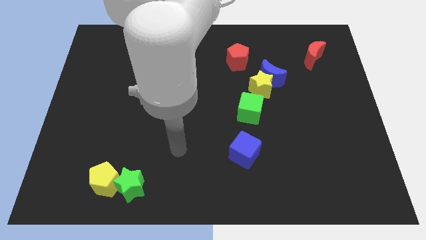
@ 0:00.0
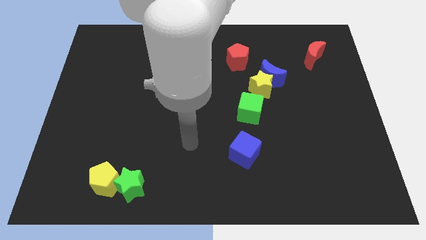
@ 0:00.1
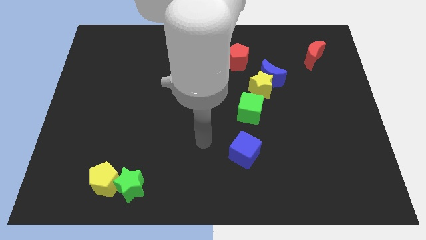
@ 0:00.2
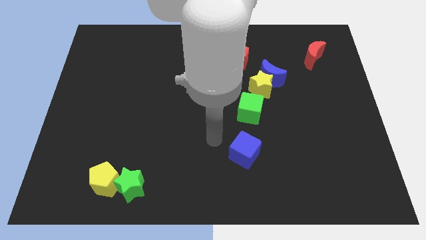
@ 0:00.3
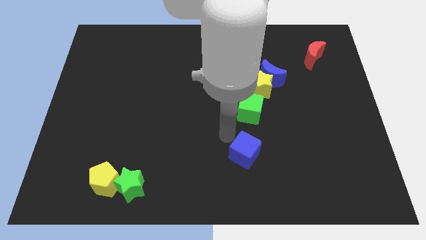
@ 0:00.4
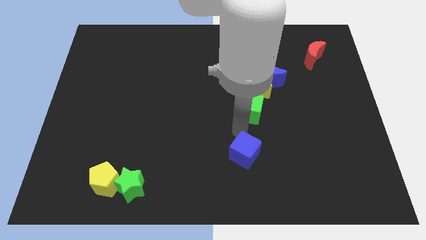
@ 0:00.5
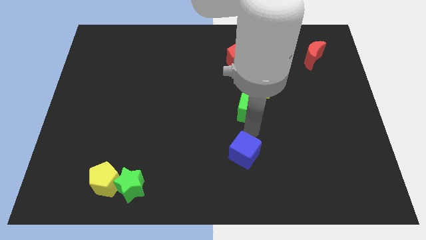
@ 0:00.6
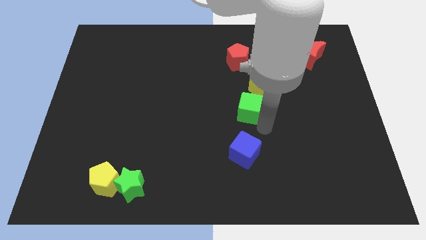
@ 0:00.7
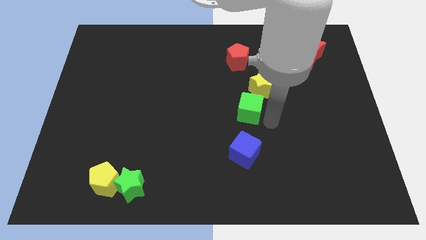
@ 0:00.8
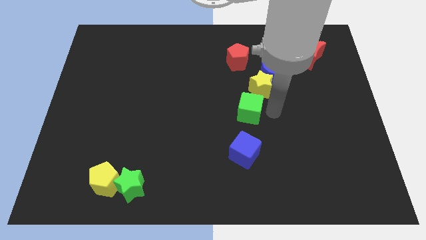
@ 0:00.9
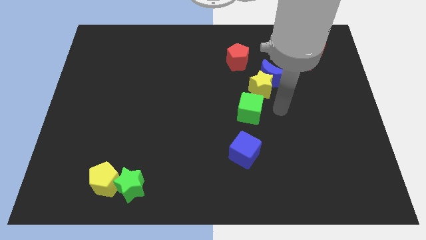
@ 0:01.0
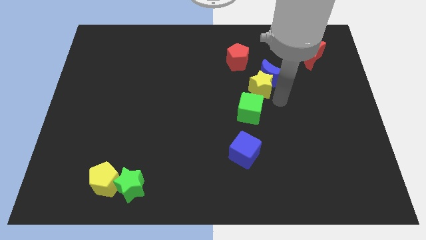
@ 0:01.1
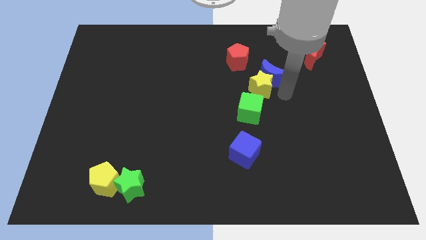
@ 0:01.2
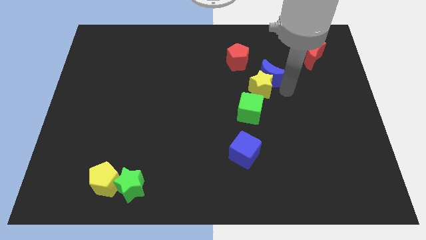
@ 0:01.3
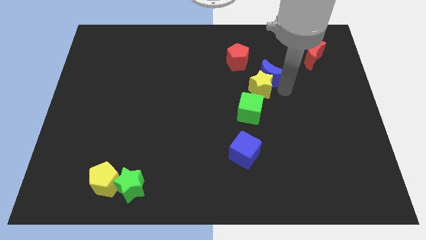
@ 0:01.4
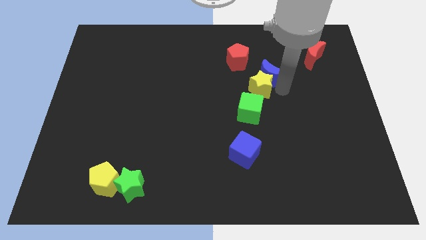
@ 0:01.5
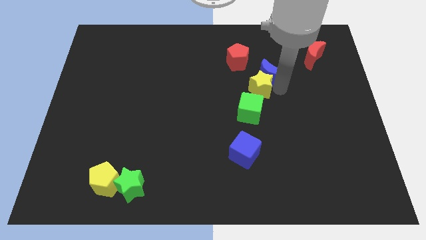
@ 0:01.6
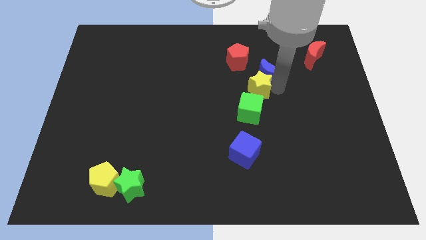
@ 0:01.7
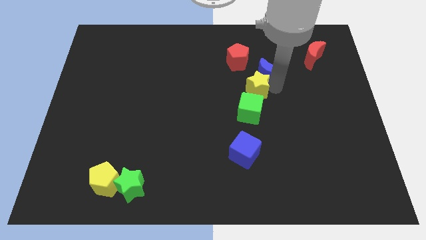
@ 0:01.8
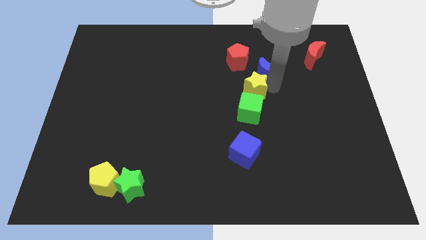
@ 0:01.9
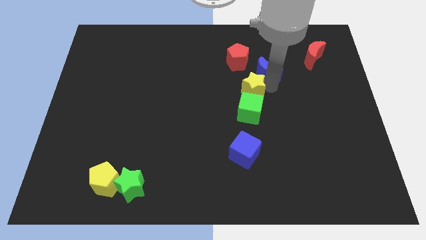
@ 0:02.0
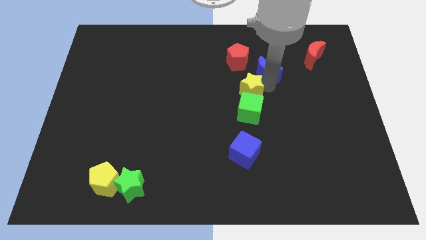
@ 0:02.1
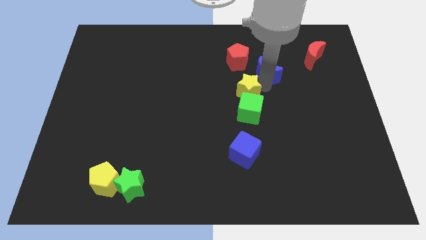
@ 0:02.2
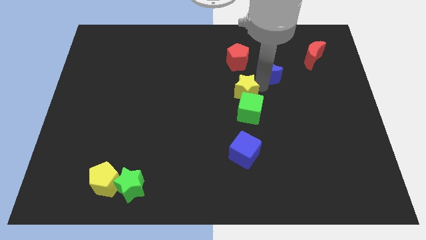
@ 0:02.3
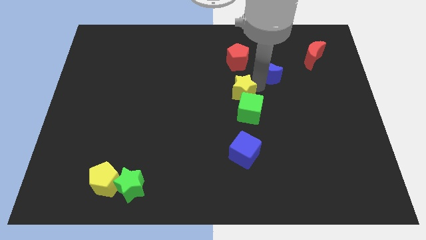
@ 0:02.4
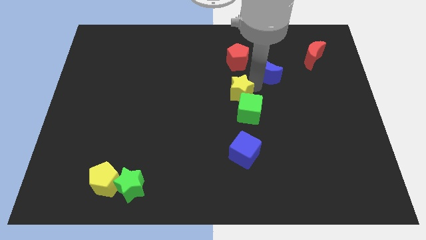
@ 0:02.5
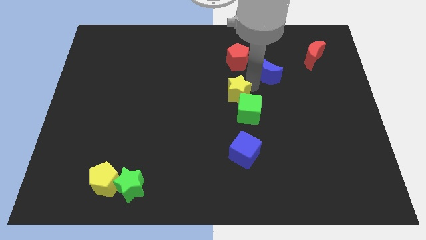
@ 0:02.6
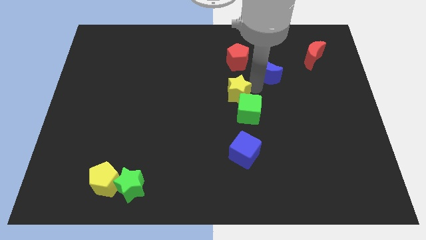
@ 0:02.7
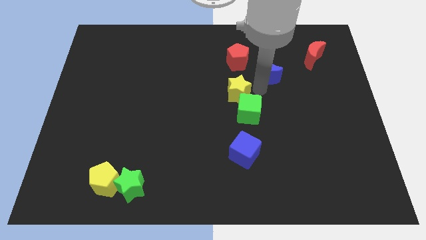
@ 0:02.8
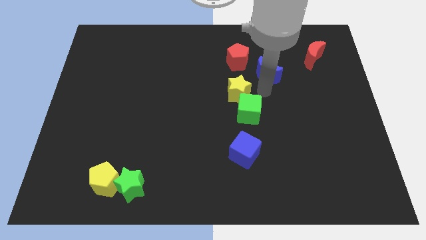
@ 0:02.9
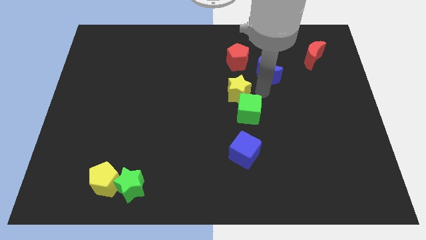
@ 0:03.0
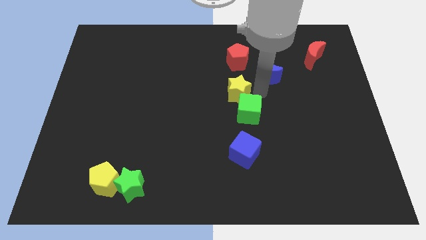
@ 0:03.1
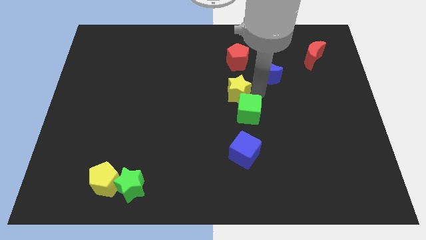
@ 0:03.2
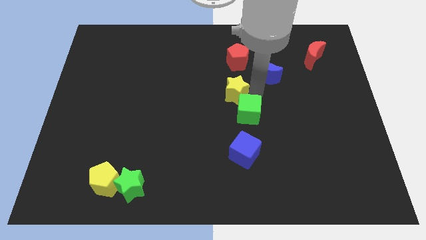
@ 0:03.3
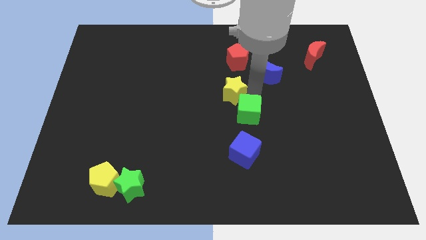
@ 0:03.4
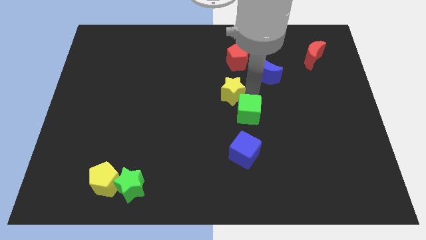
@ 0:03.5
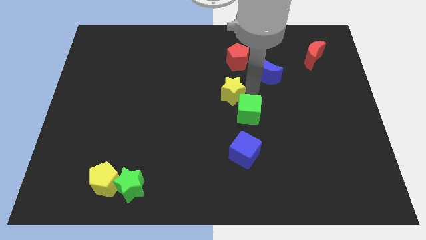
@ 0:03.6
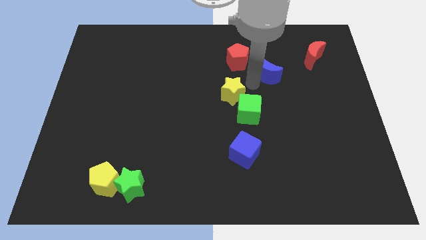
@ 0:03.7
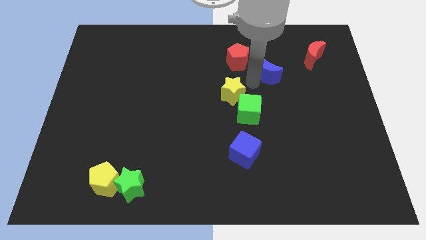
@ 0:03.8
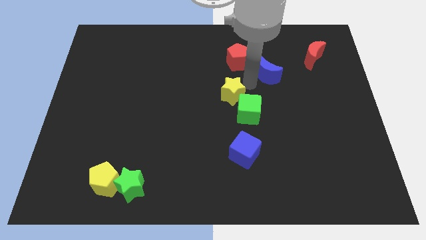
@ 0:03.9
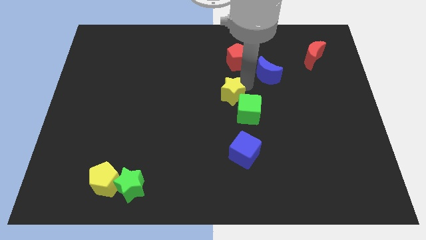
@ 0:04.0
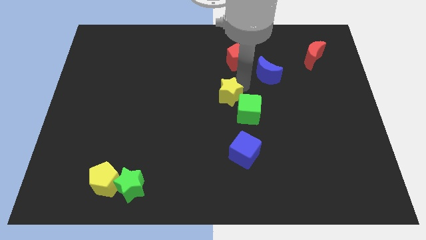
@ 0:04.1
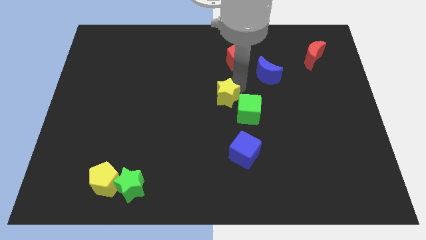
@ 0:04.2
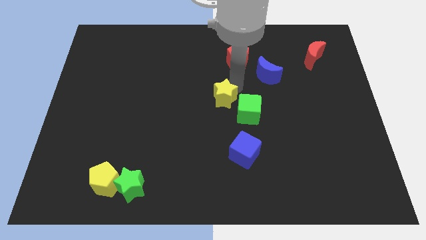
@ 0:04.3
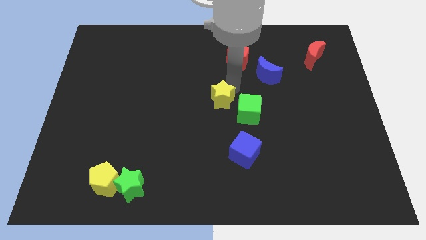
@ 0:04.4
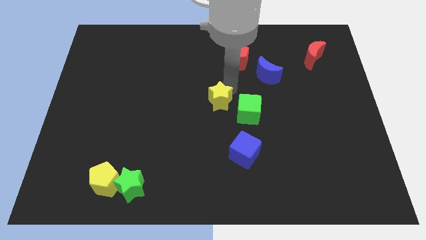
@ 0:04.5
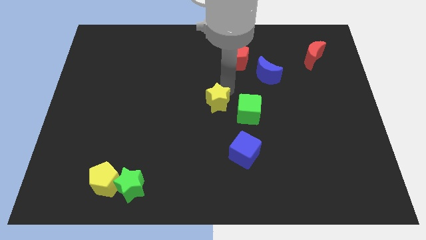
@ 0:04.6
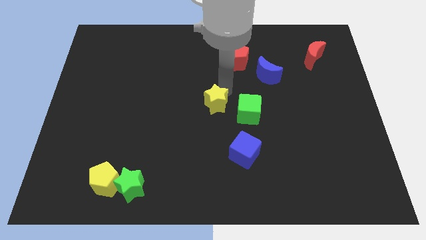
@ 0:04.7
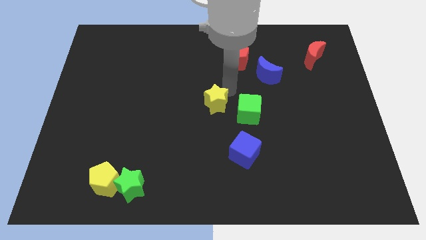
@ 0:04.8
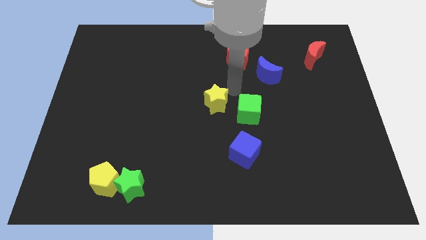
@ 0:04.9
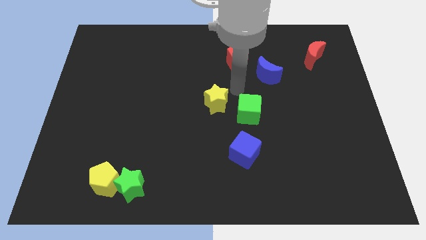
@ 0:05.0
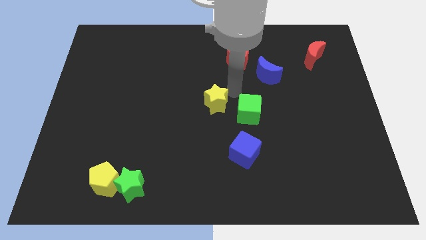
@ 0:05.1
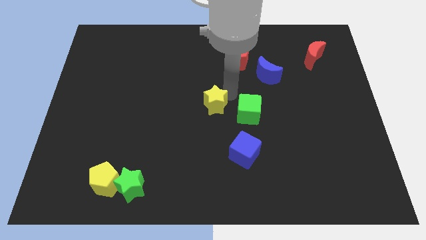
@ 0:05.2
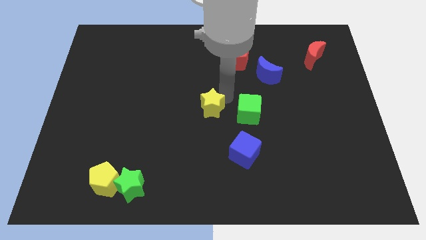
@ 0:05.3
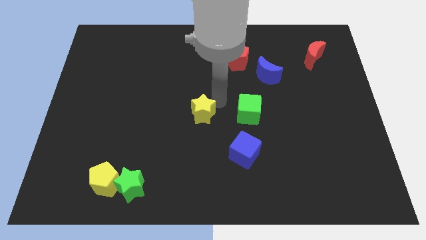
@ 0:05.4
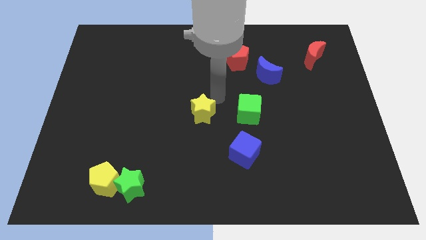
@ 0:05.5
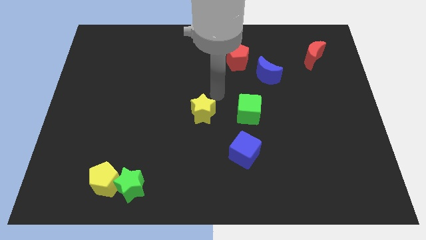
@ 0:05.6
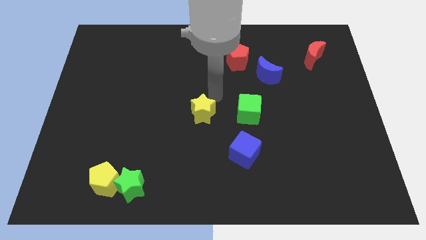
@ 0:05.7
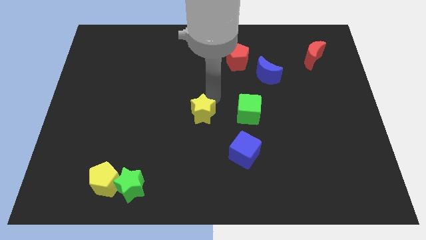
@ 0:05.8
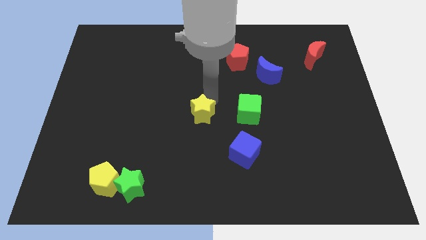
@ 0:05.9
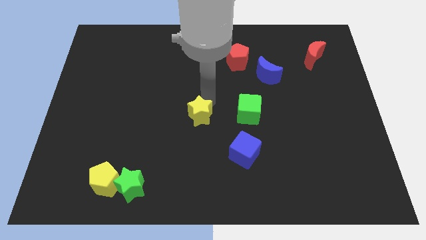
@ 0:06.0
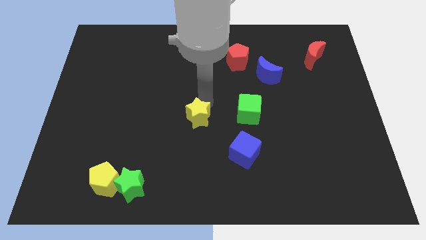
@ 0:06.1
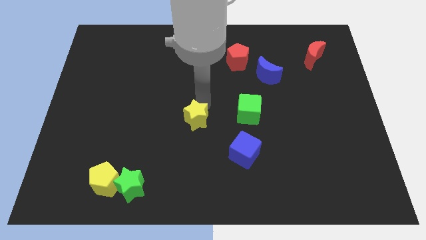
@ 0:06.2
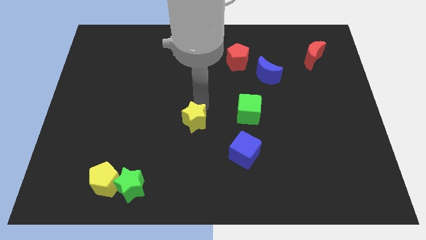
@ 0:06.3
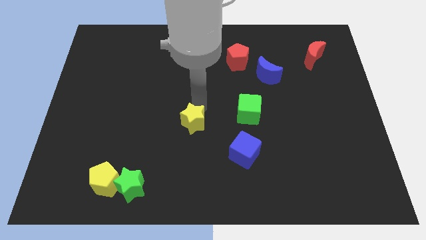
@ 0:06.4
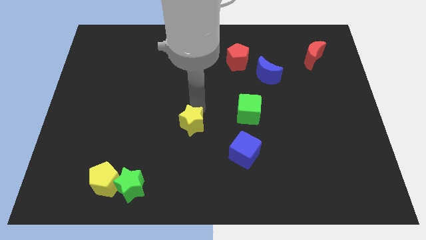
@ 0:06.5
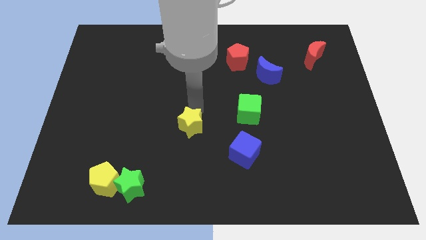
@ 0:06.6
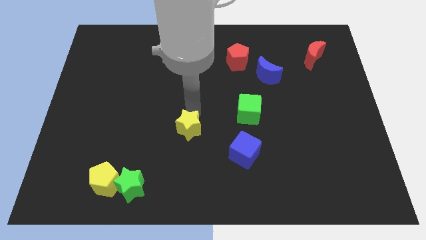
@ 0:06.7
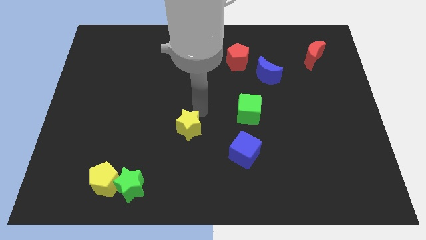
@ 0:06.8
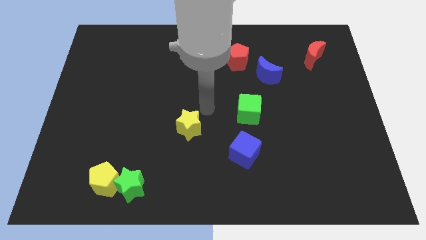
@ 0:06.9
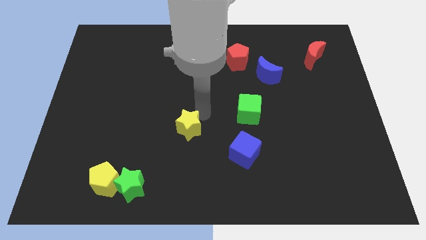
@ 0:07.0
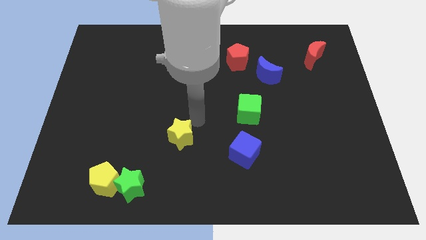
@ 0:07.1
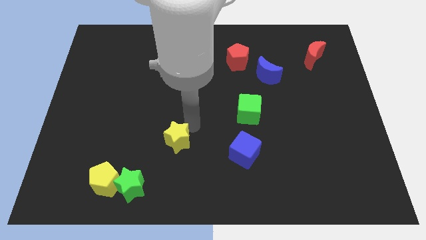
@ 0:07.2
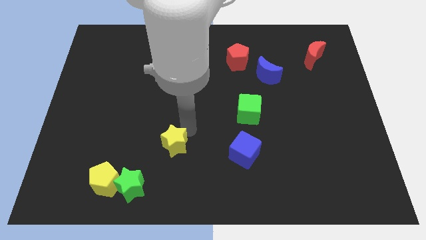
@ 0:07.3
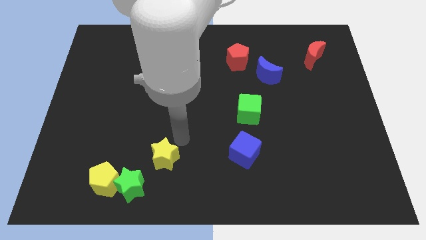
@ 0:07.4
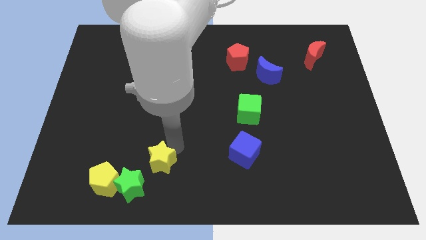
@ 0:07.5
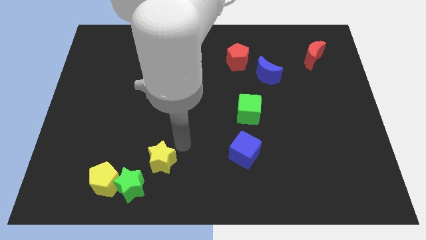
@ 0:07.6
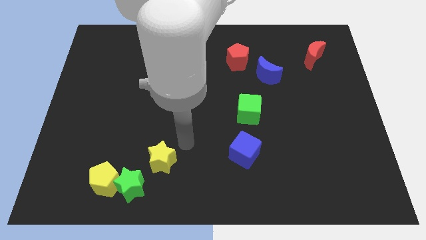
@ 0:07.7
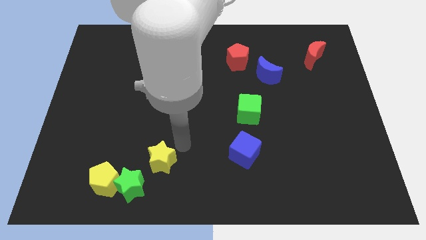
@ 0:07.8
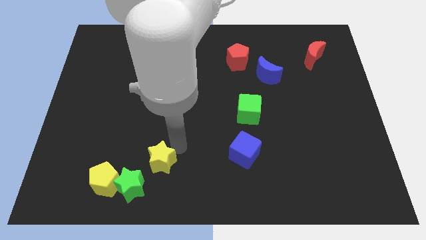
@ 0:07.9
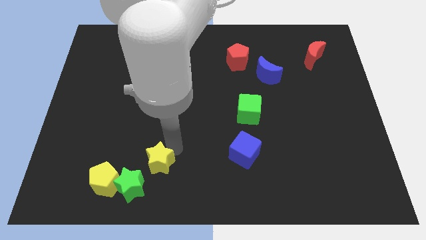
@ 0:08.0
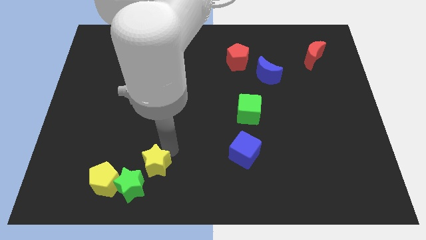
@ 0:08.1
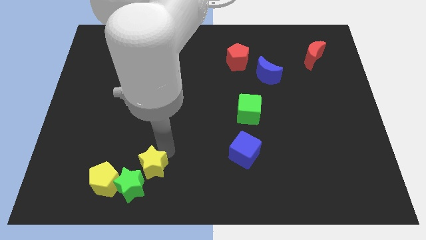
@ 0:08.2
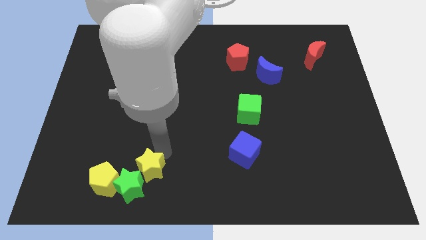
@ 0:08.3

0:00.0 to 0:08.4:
slide the yellow star towards the green star
